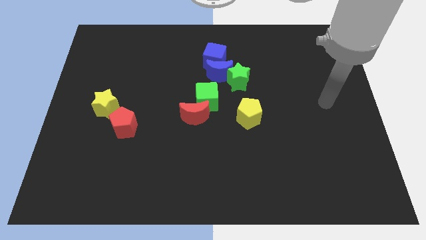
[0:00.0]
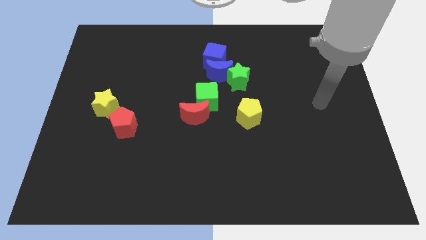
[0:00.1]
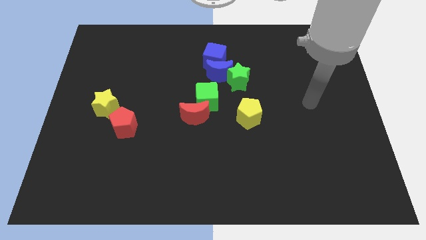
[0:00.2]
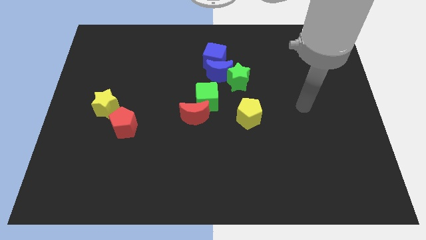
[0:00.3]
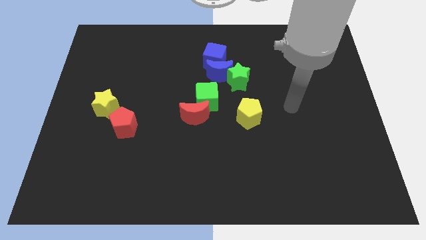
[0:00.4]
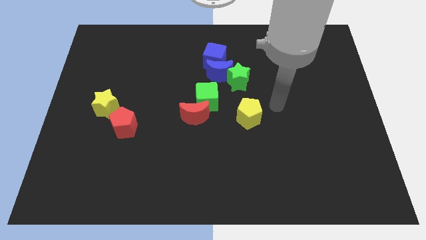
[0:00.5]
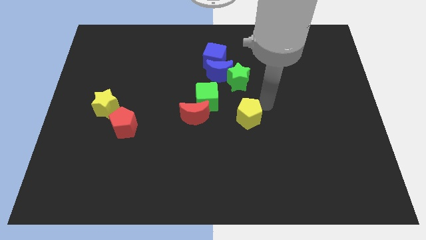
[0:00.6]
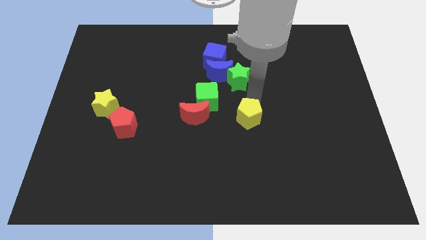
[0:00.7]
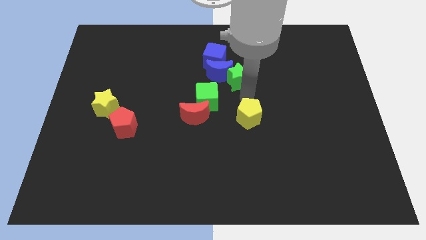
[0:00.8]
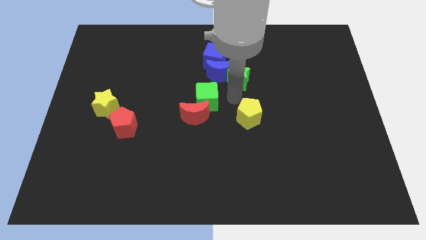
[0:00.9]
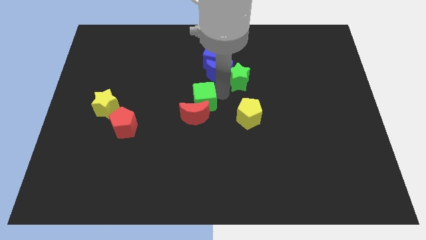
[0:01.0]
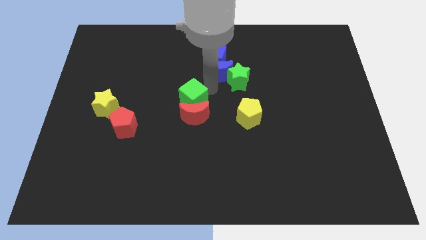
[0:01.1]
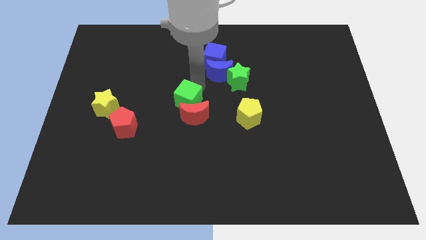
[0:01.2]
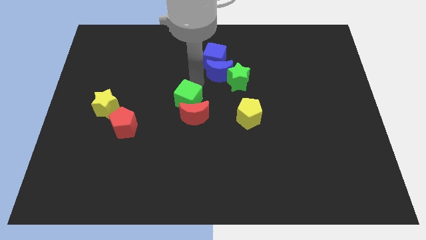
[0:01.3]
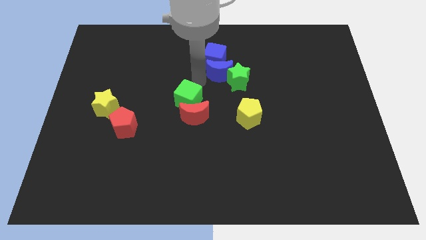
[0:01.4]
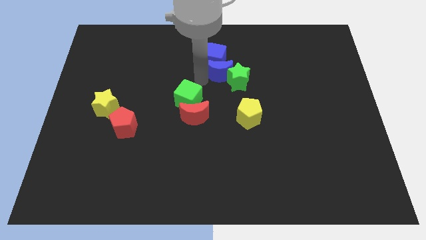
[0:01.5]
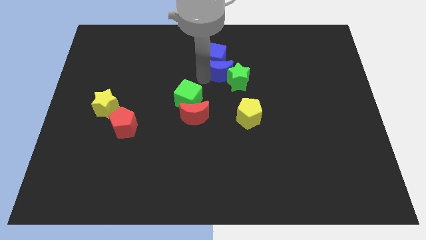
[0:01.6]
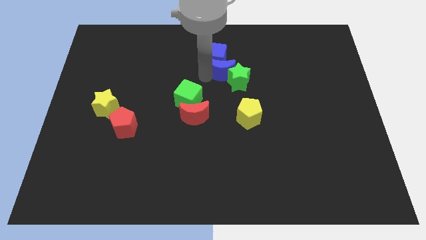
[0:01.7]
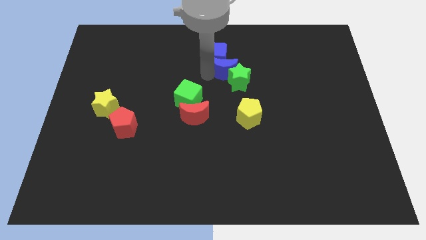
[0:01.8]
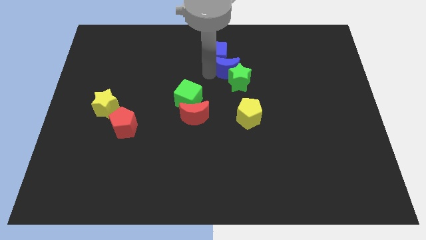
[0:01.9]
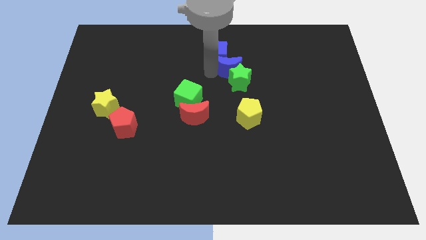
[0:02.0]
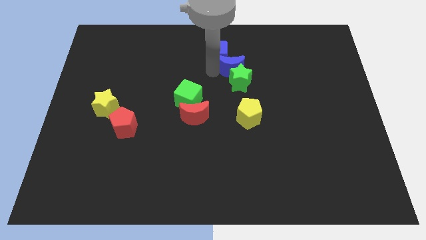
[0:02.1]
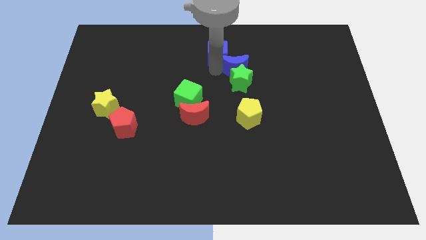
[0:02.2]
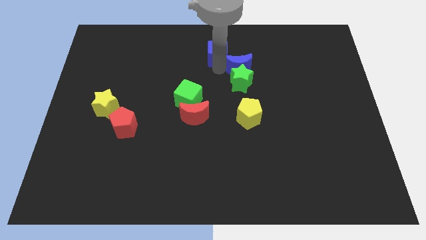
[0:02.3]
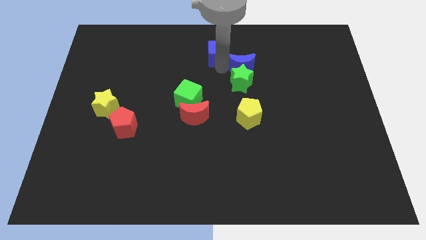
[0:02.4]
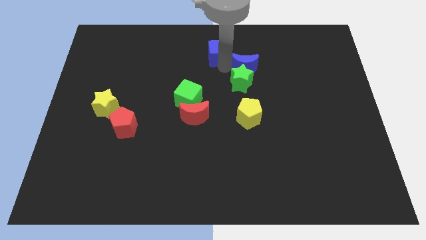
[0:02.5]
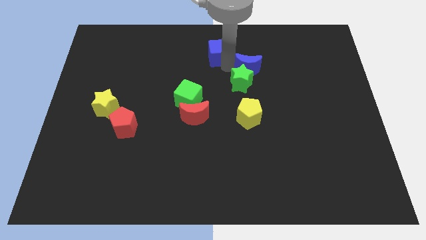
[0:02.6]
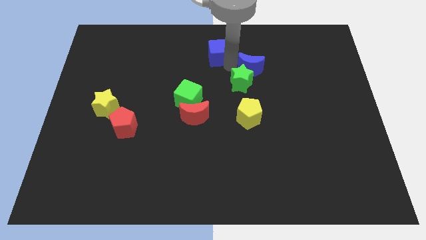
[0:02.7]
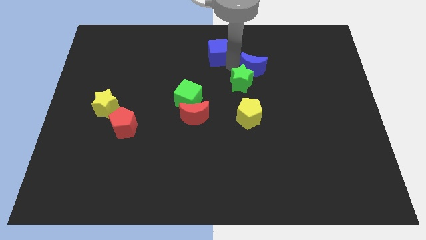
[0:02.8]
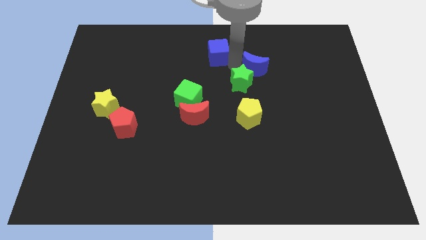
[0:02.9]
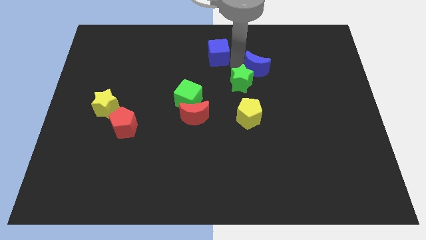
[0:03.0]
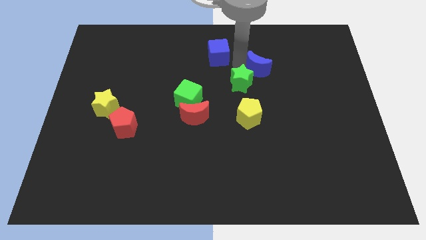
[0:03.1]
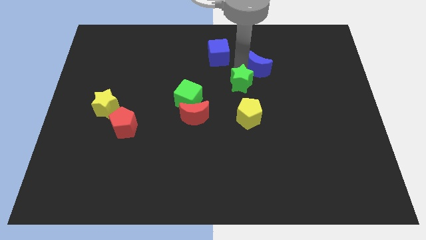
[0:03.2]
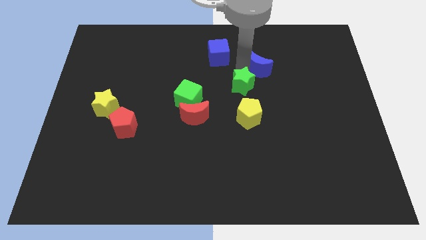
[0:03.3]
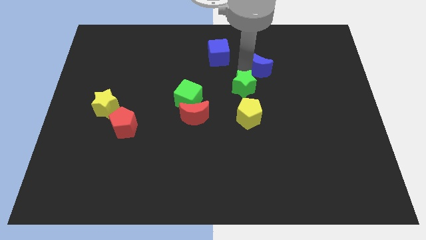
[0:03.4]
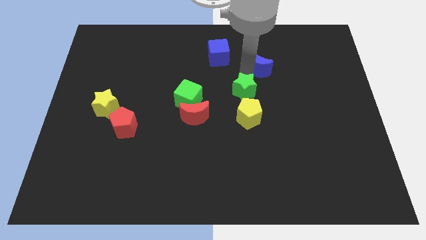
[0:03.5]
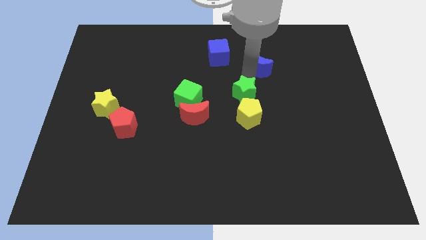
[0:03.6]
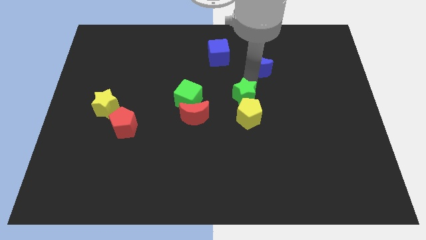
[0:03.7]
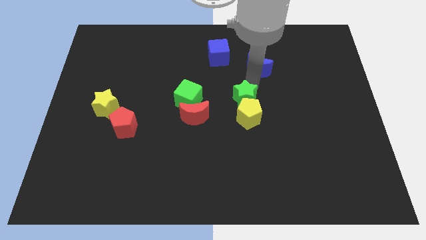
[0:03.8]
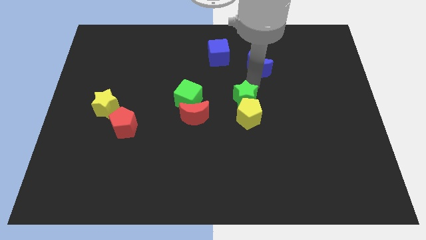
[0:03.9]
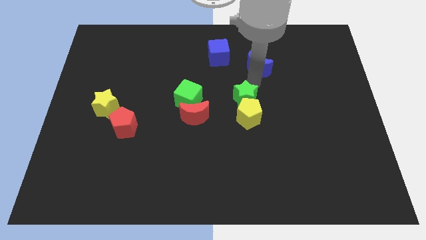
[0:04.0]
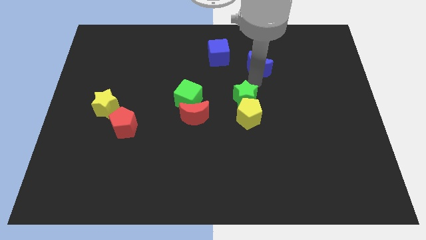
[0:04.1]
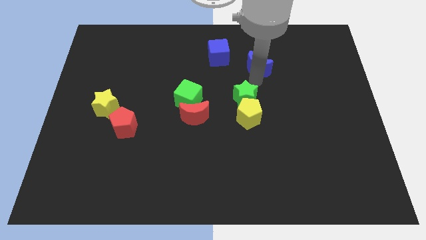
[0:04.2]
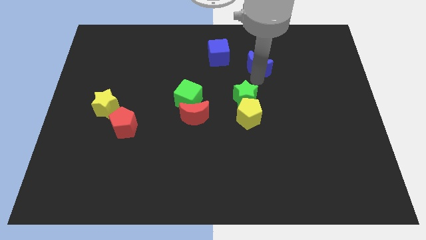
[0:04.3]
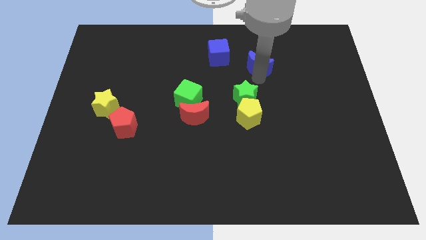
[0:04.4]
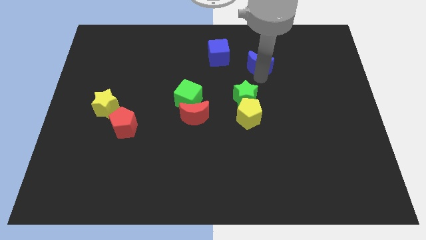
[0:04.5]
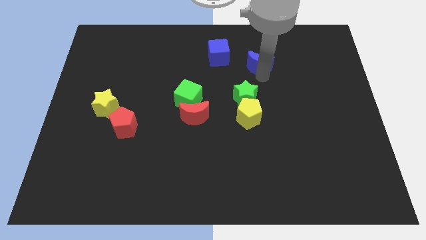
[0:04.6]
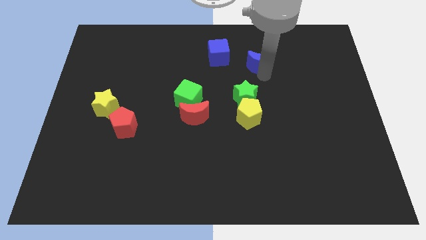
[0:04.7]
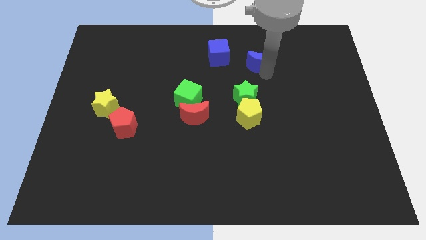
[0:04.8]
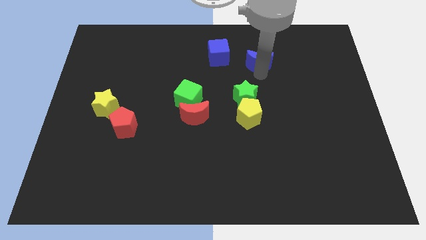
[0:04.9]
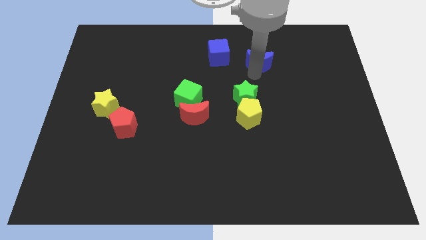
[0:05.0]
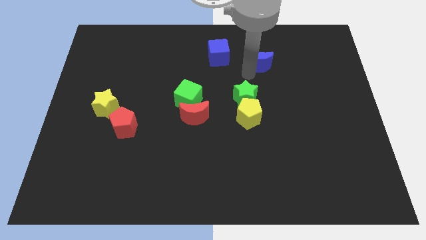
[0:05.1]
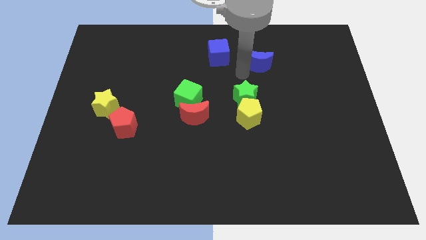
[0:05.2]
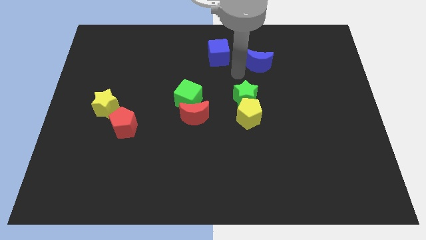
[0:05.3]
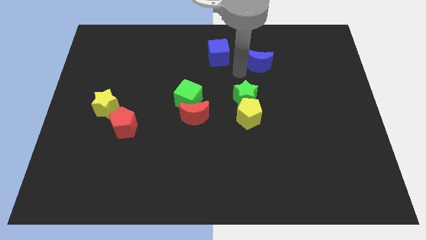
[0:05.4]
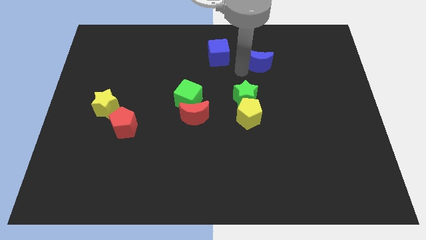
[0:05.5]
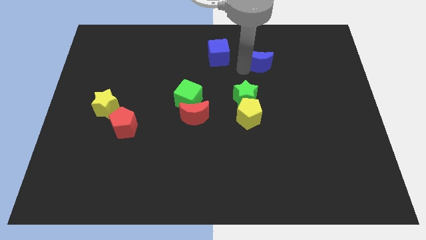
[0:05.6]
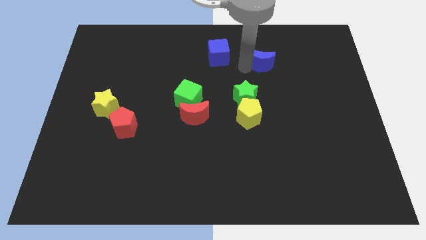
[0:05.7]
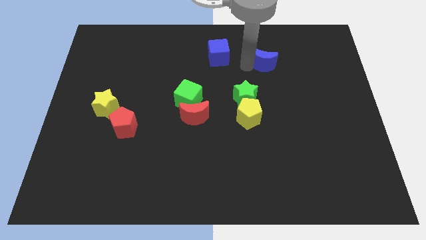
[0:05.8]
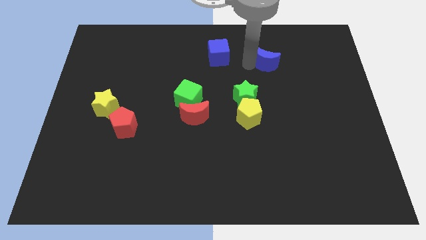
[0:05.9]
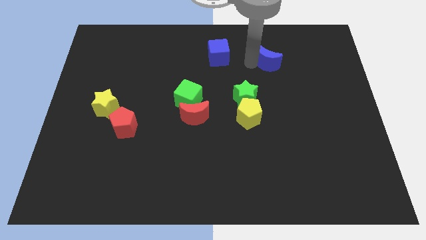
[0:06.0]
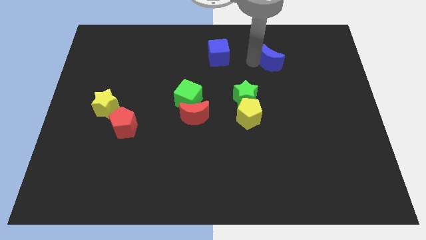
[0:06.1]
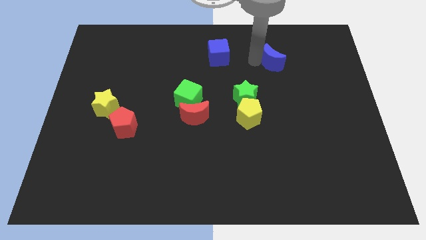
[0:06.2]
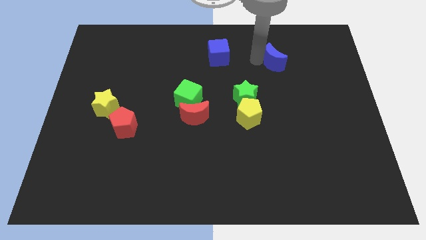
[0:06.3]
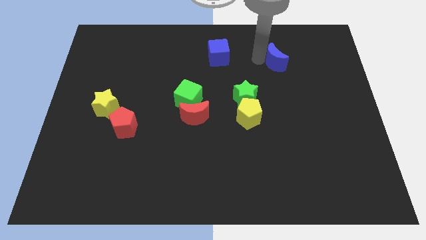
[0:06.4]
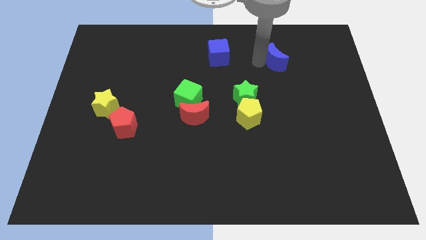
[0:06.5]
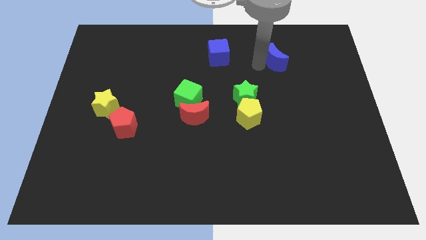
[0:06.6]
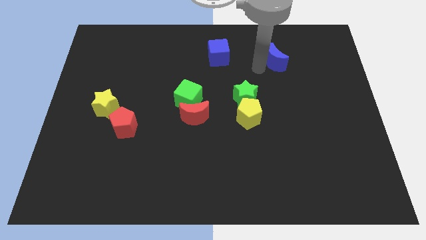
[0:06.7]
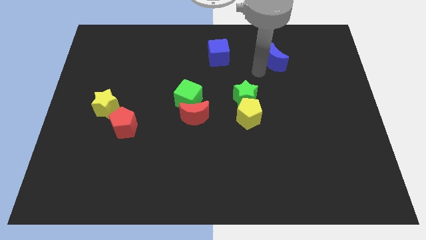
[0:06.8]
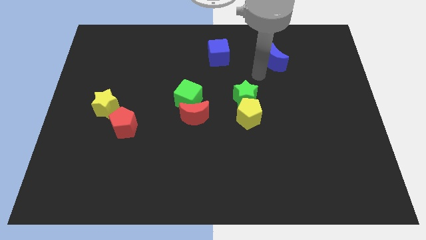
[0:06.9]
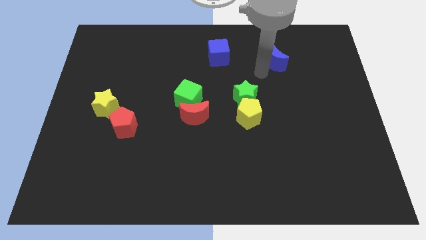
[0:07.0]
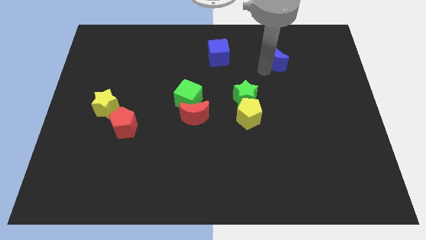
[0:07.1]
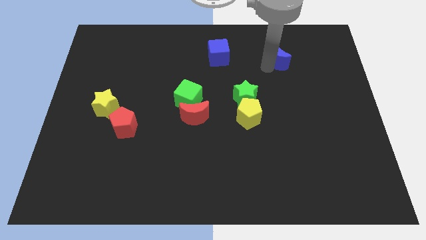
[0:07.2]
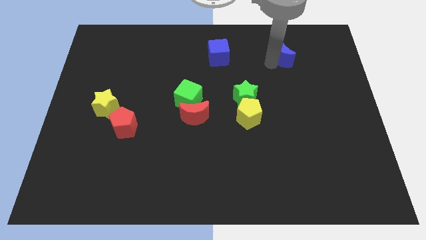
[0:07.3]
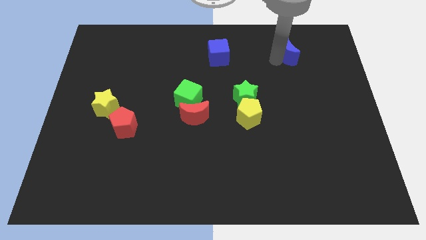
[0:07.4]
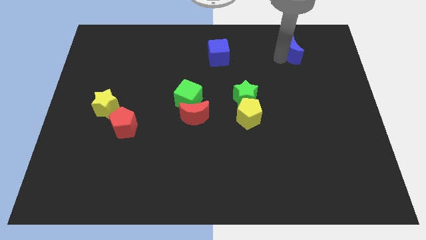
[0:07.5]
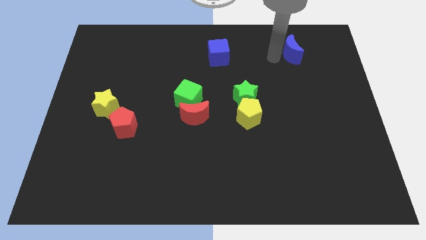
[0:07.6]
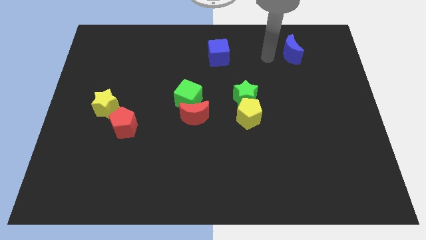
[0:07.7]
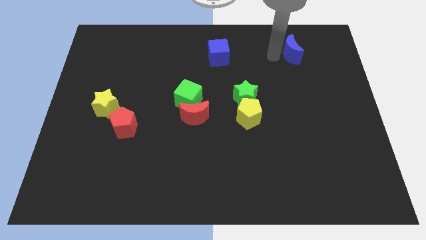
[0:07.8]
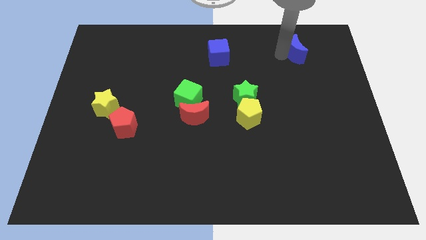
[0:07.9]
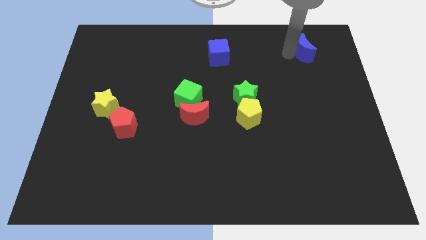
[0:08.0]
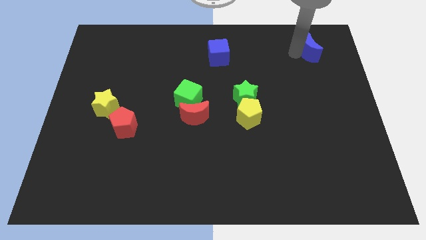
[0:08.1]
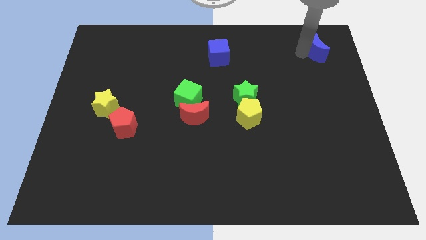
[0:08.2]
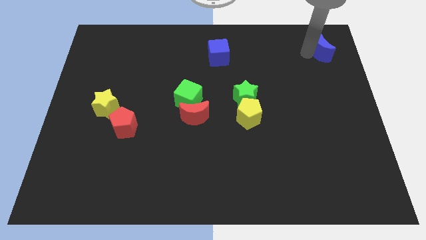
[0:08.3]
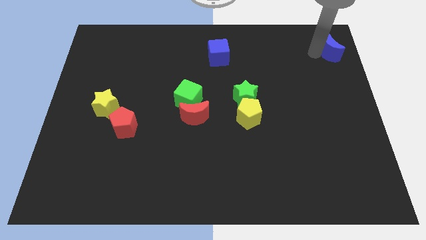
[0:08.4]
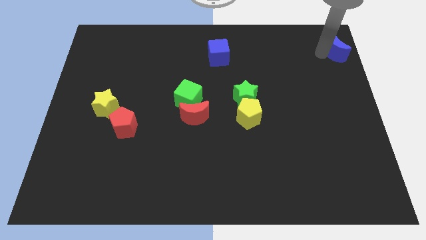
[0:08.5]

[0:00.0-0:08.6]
push the blue moon to the top right
